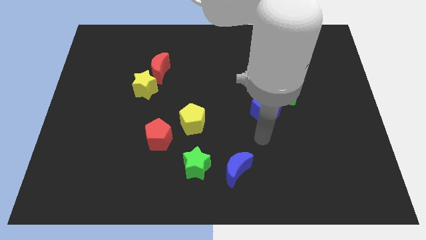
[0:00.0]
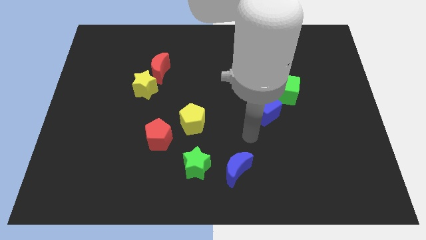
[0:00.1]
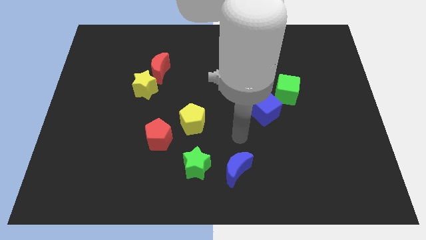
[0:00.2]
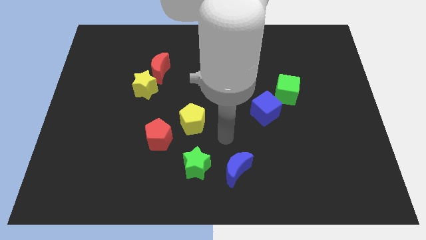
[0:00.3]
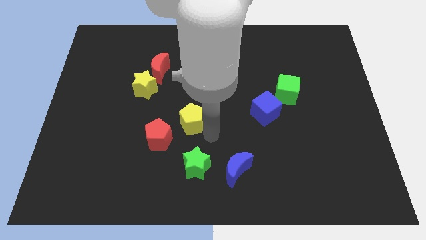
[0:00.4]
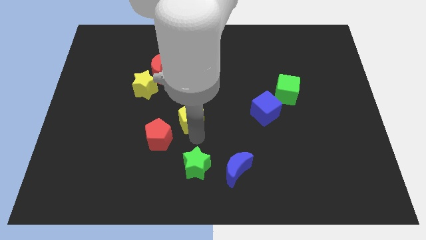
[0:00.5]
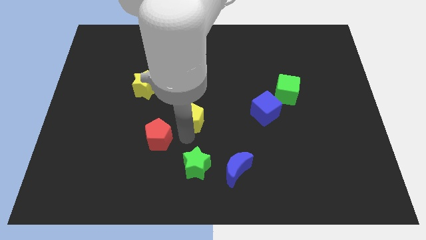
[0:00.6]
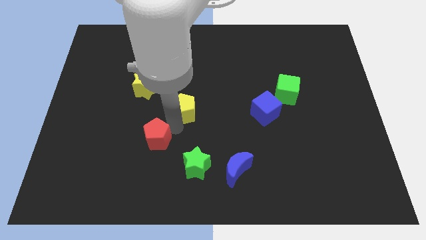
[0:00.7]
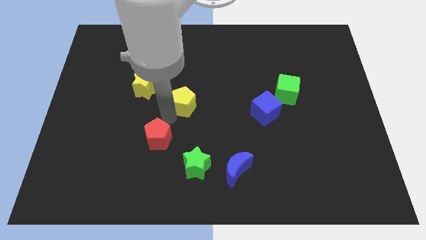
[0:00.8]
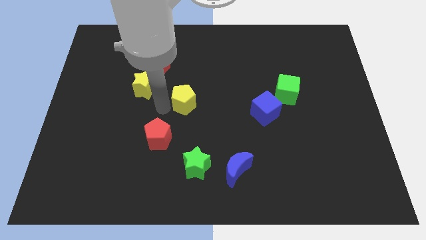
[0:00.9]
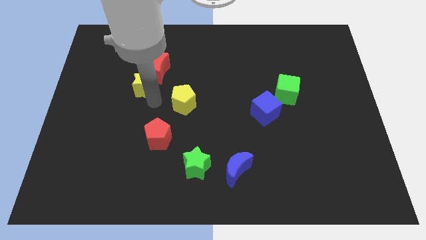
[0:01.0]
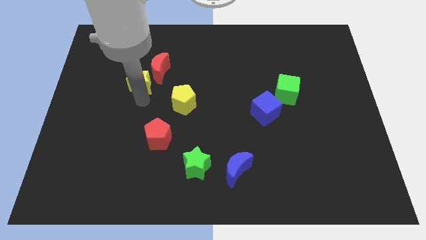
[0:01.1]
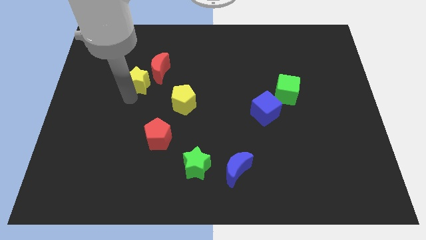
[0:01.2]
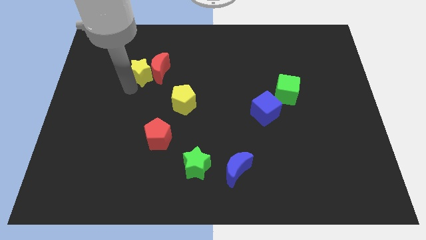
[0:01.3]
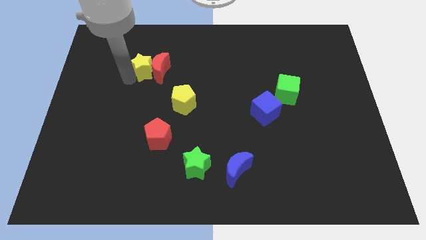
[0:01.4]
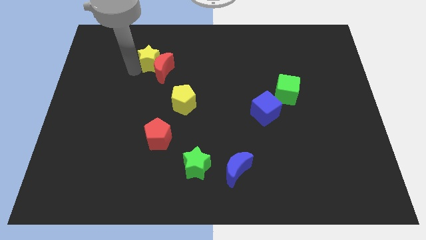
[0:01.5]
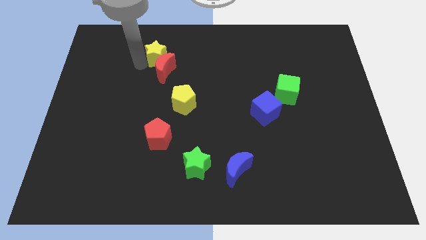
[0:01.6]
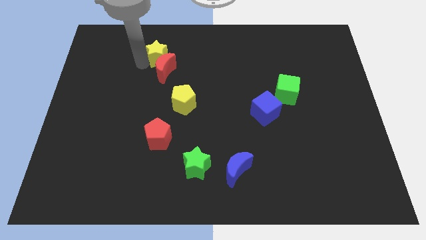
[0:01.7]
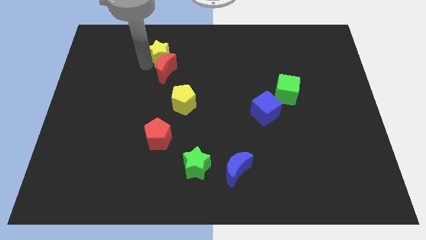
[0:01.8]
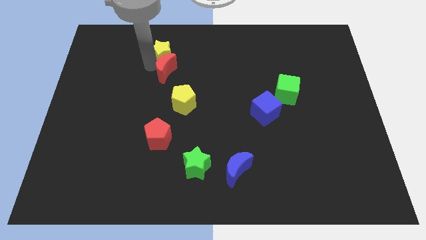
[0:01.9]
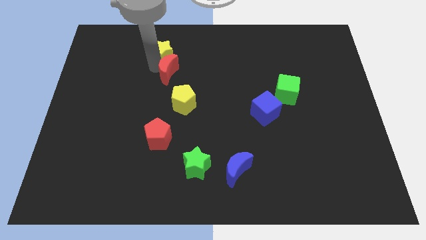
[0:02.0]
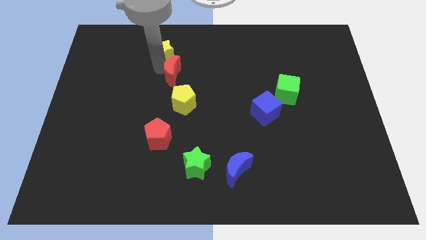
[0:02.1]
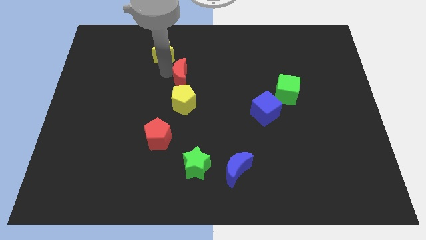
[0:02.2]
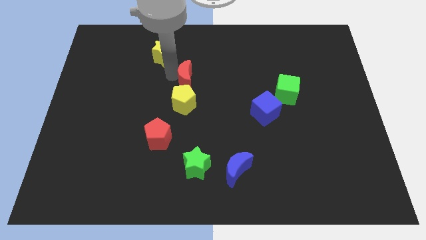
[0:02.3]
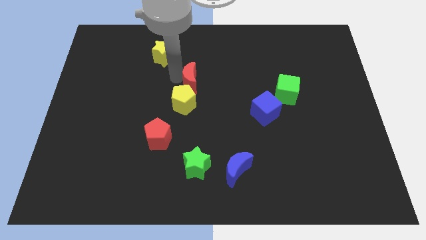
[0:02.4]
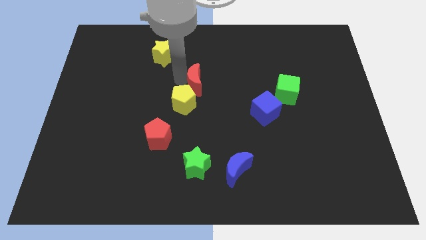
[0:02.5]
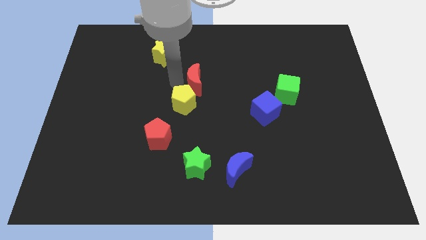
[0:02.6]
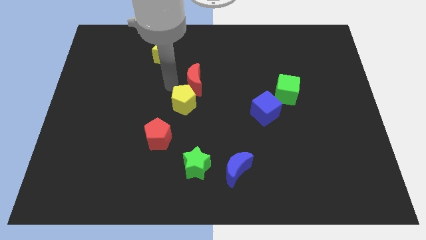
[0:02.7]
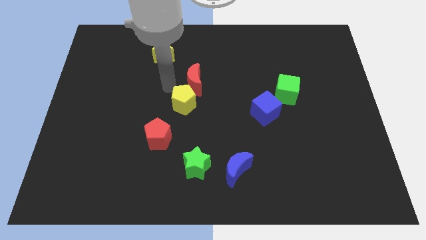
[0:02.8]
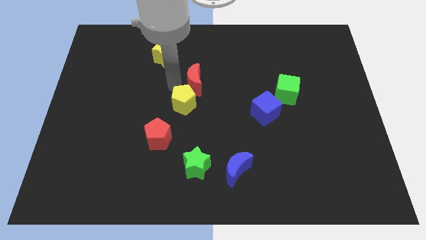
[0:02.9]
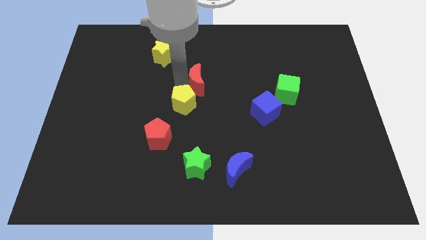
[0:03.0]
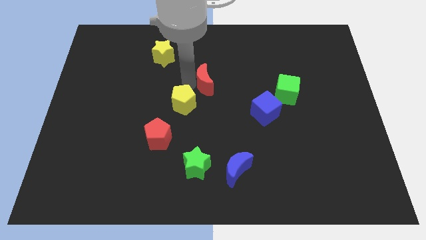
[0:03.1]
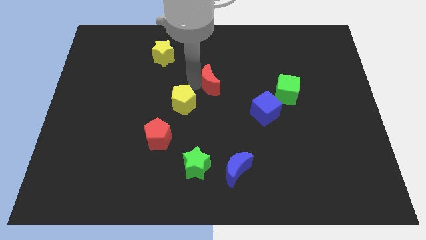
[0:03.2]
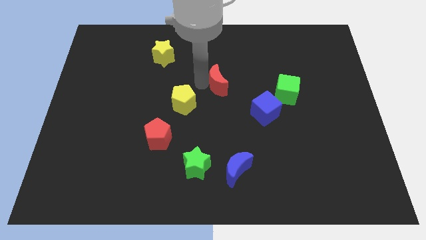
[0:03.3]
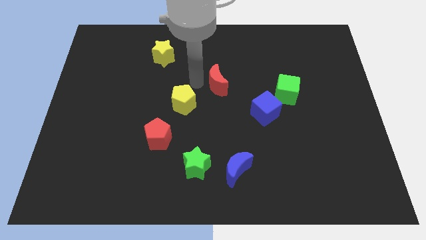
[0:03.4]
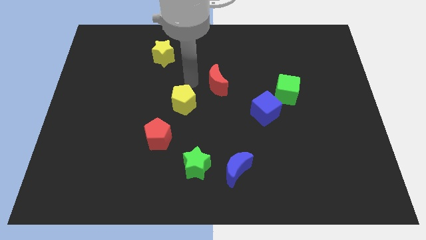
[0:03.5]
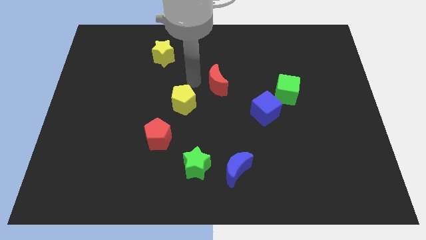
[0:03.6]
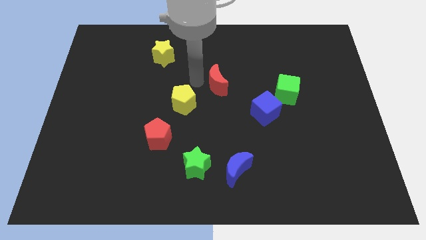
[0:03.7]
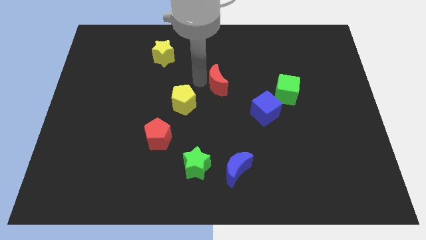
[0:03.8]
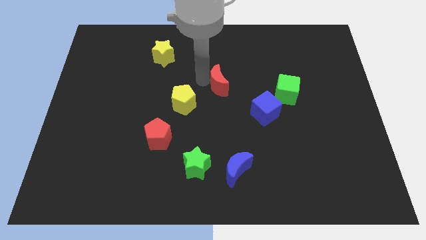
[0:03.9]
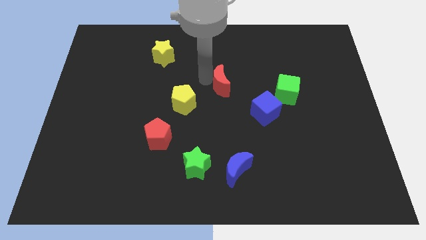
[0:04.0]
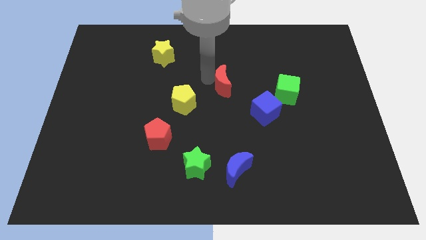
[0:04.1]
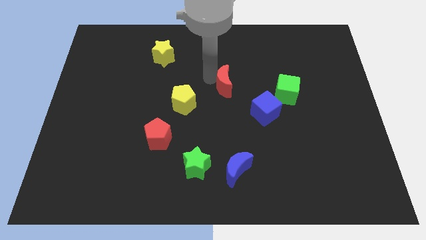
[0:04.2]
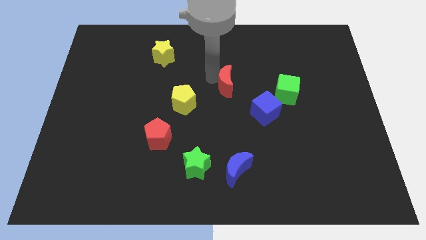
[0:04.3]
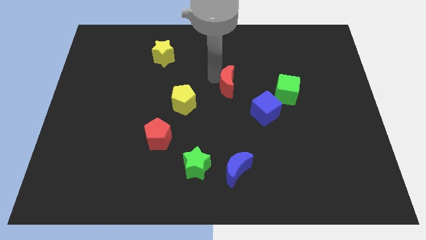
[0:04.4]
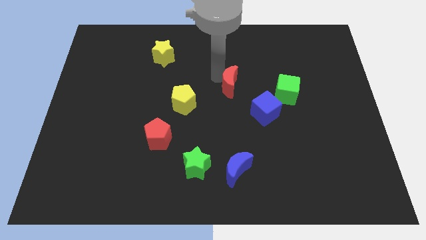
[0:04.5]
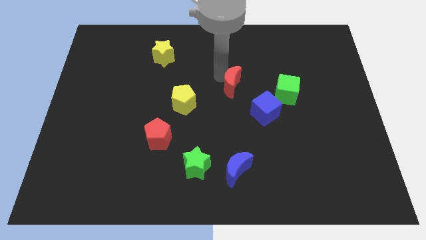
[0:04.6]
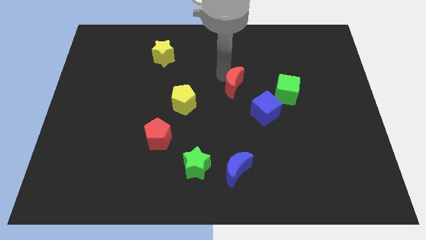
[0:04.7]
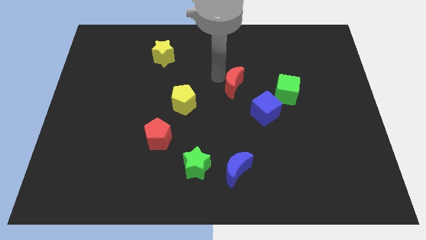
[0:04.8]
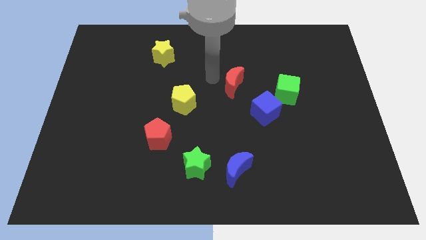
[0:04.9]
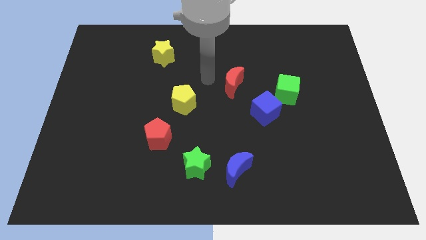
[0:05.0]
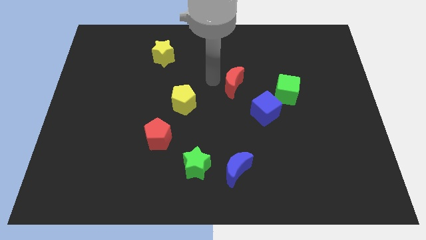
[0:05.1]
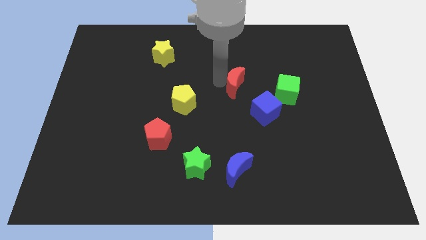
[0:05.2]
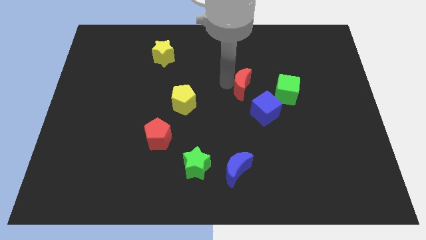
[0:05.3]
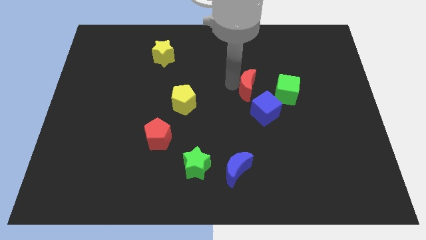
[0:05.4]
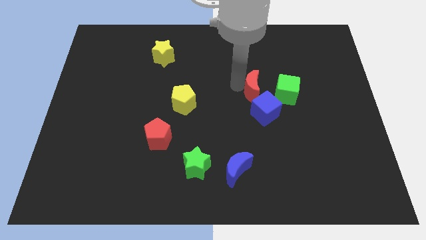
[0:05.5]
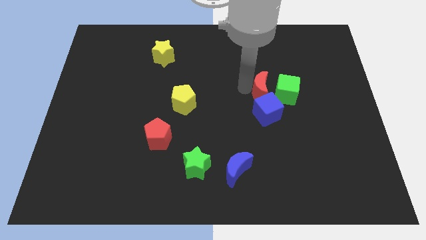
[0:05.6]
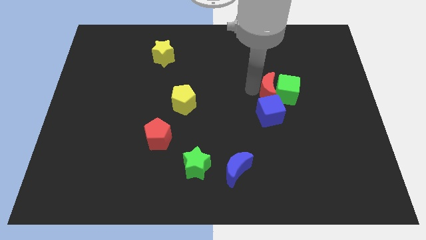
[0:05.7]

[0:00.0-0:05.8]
push the red moon to the green cube

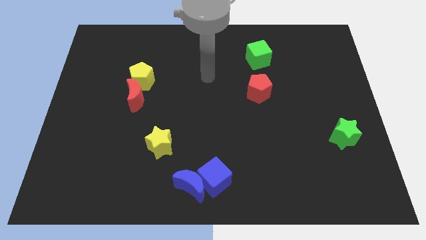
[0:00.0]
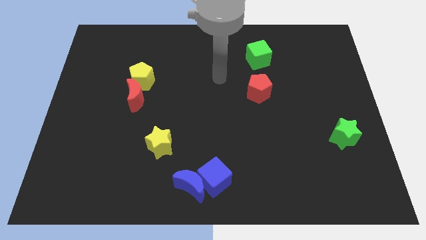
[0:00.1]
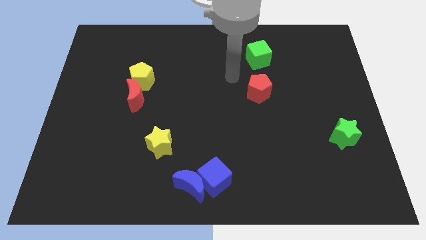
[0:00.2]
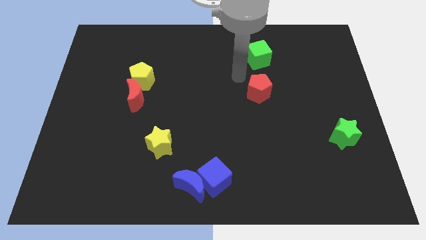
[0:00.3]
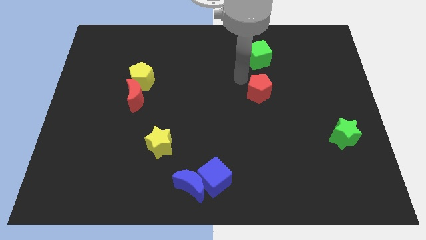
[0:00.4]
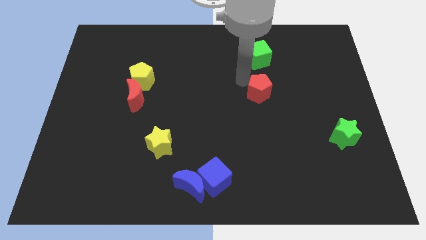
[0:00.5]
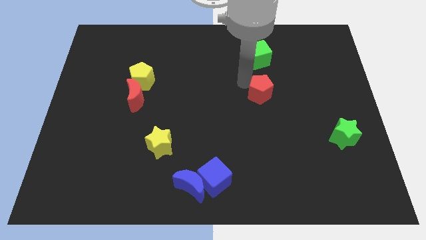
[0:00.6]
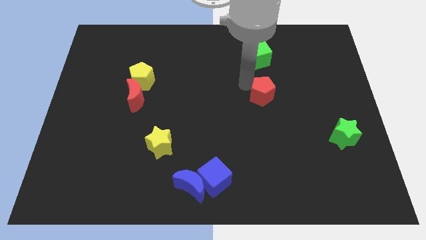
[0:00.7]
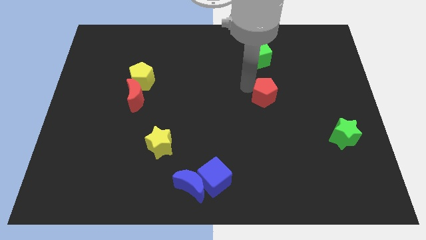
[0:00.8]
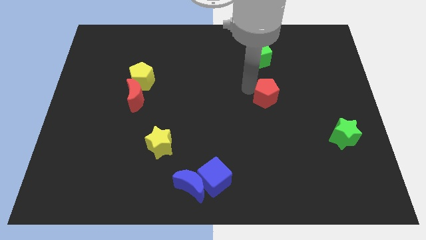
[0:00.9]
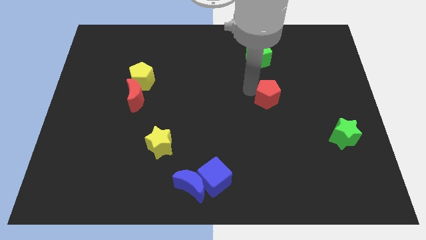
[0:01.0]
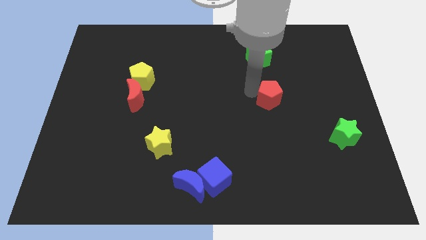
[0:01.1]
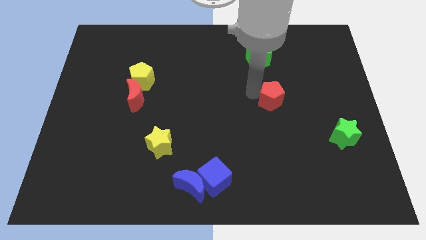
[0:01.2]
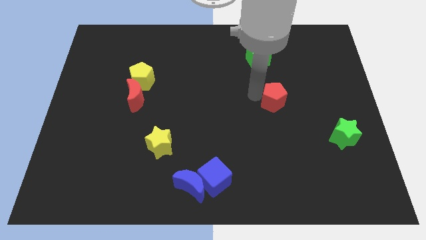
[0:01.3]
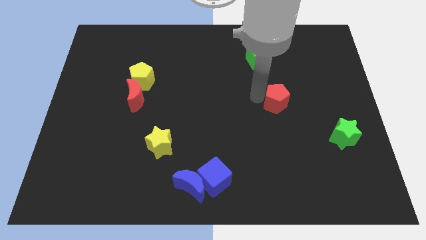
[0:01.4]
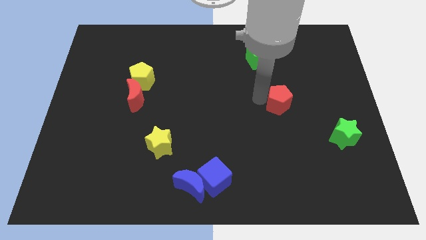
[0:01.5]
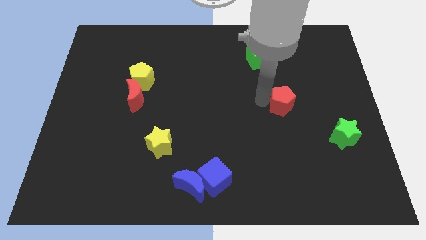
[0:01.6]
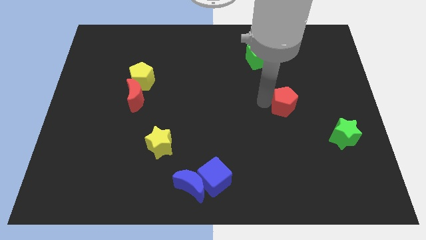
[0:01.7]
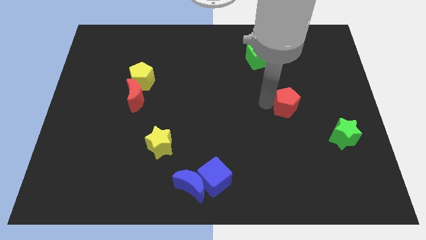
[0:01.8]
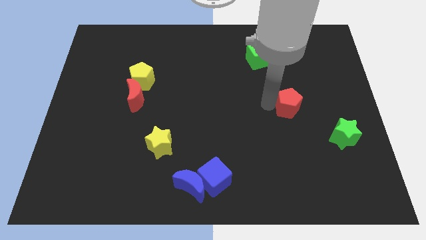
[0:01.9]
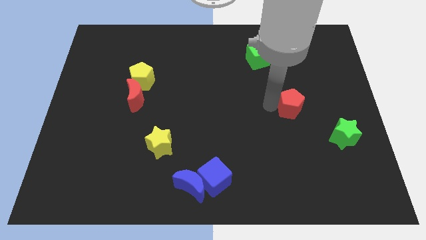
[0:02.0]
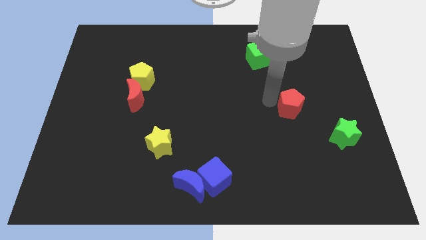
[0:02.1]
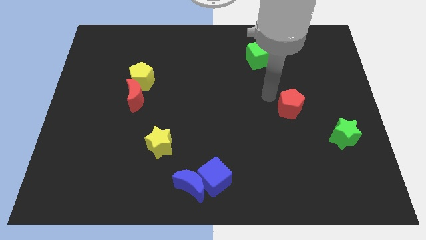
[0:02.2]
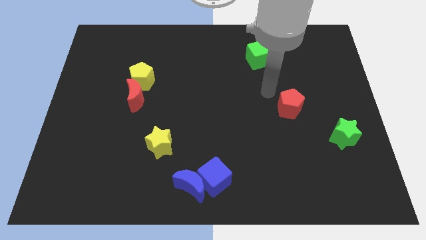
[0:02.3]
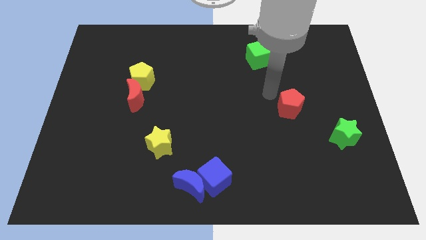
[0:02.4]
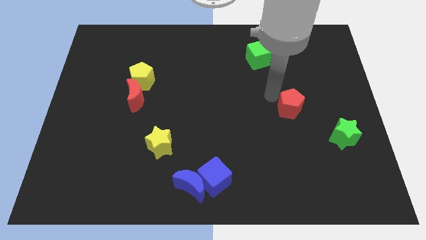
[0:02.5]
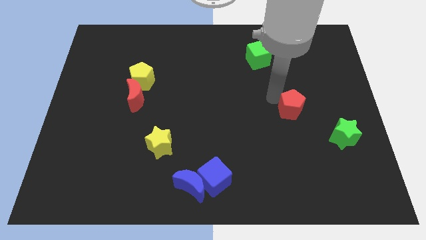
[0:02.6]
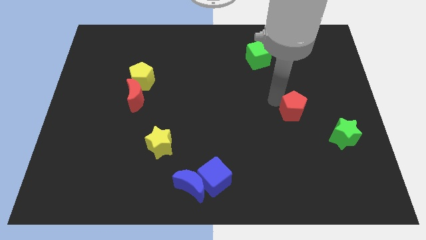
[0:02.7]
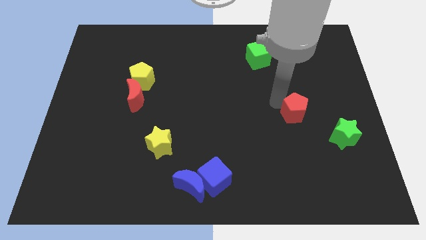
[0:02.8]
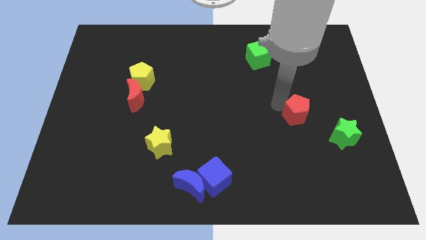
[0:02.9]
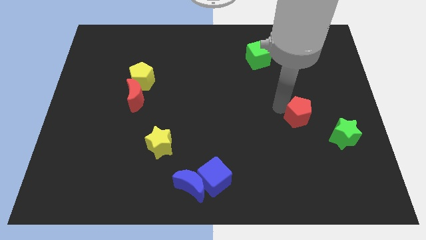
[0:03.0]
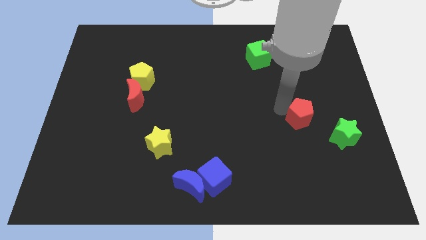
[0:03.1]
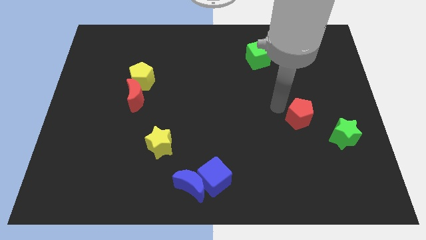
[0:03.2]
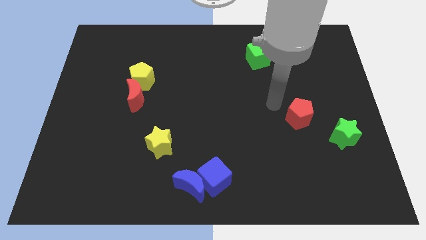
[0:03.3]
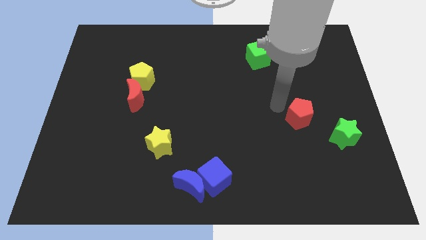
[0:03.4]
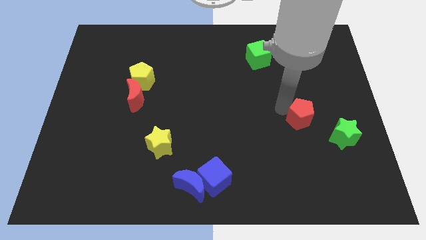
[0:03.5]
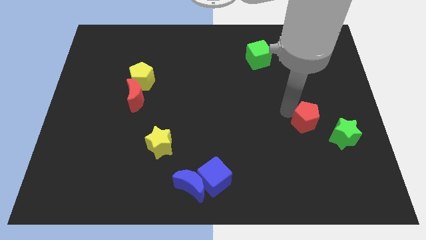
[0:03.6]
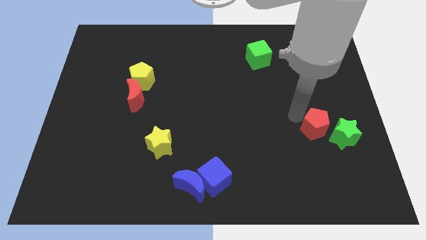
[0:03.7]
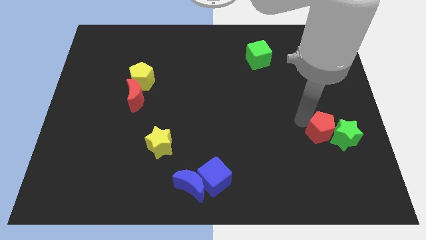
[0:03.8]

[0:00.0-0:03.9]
slide the red pentagon close to the green star
